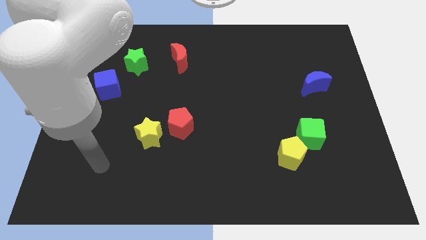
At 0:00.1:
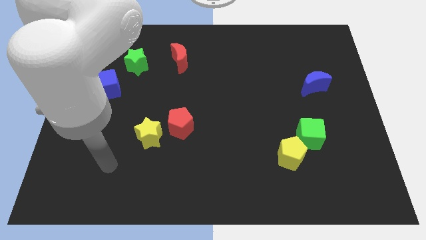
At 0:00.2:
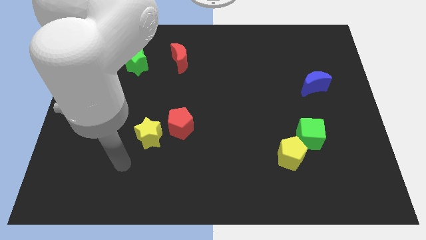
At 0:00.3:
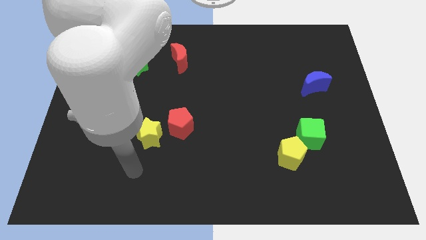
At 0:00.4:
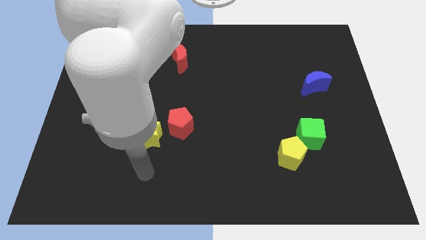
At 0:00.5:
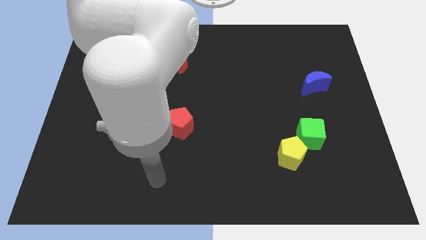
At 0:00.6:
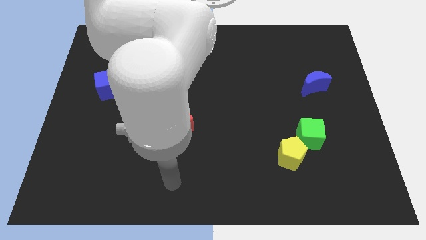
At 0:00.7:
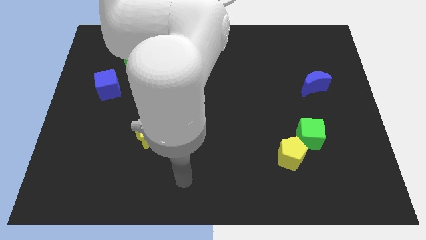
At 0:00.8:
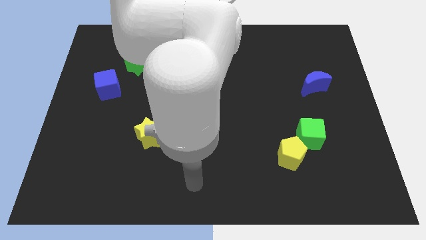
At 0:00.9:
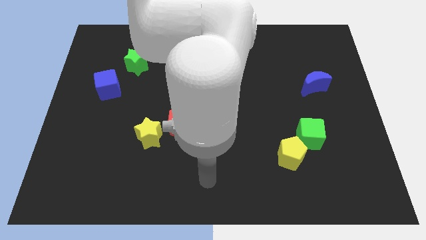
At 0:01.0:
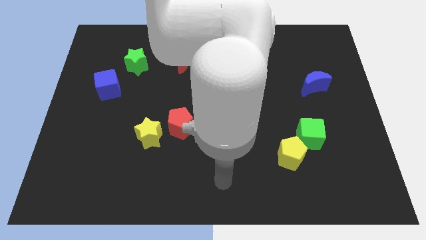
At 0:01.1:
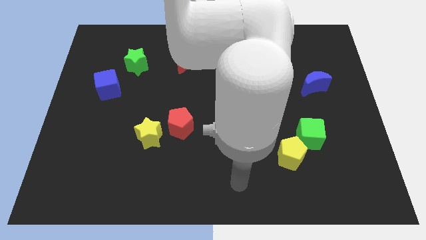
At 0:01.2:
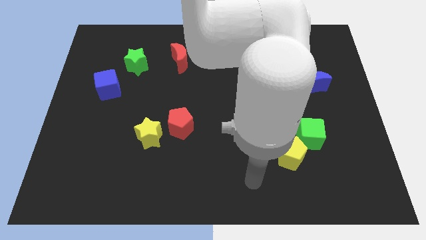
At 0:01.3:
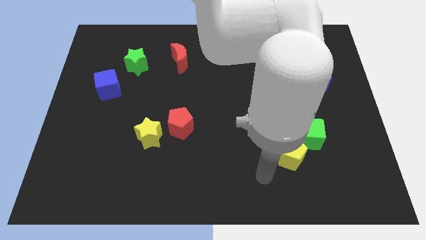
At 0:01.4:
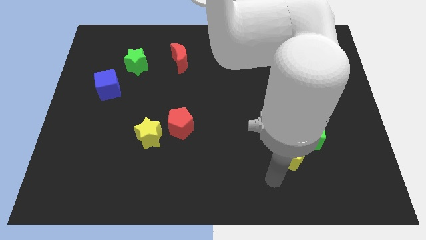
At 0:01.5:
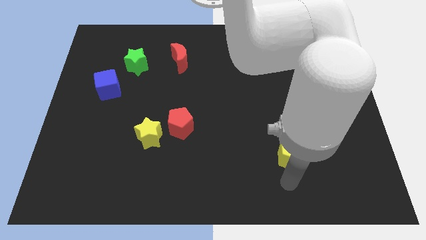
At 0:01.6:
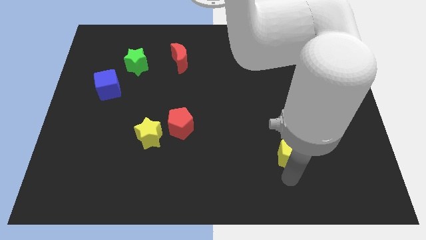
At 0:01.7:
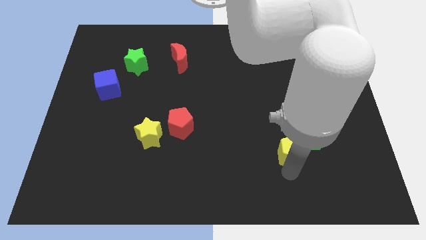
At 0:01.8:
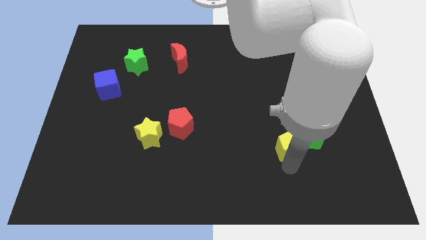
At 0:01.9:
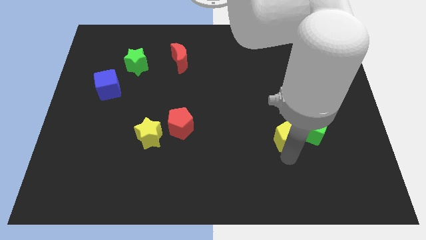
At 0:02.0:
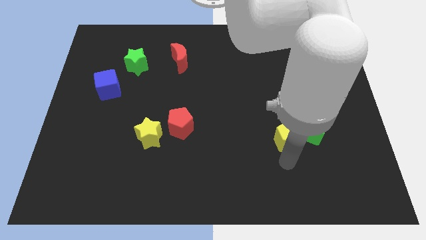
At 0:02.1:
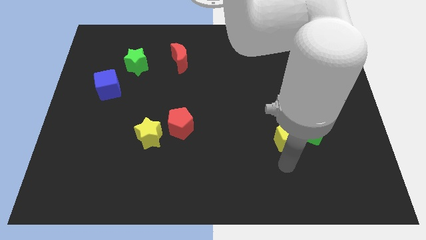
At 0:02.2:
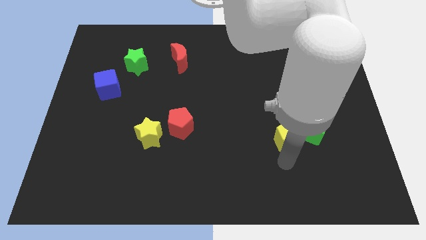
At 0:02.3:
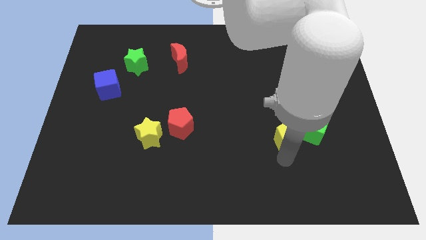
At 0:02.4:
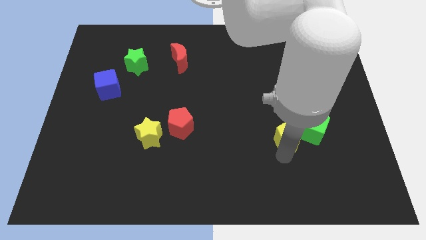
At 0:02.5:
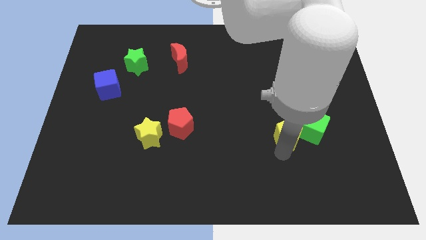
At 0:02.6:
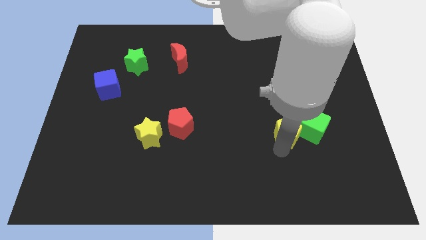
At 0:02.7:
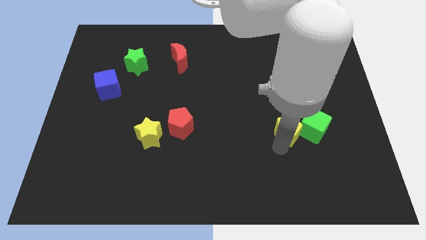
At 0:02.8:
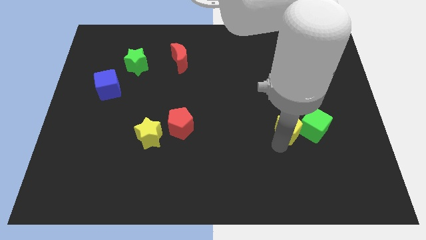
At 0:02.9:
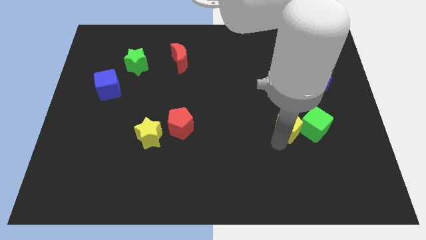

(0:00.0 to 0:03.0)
slide the yellow pentagon up a little bit

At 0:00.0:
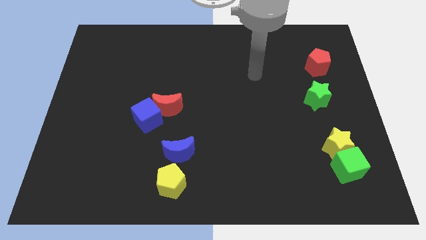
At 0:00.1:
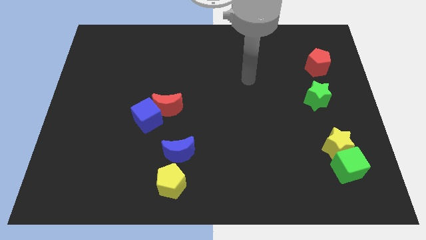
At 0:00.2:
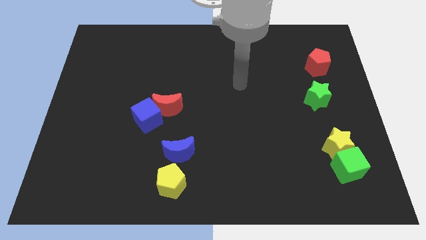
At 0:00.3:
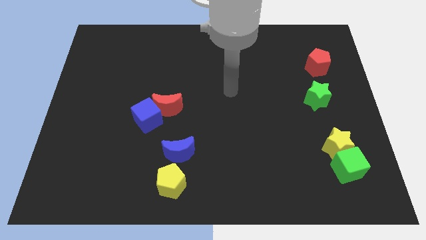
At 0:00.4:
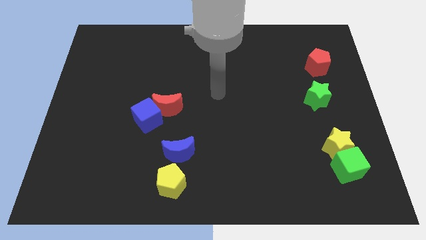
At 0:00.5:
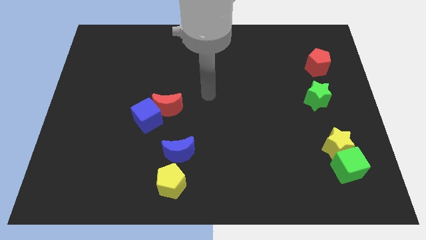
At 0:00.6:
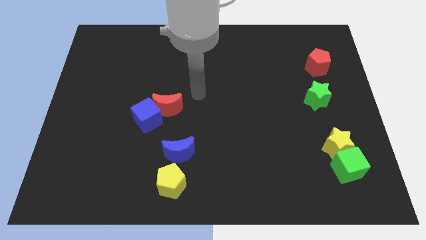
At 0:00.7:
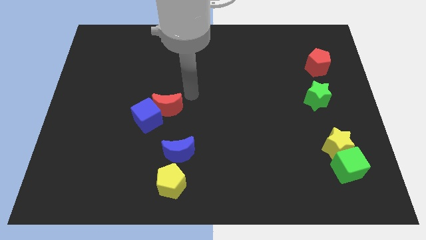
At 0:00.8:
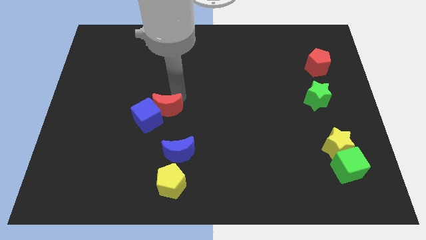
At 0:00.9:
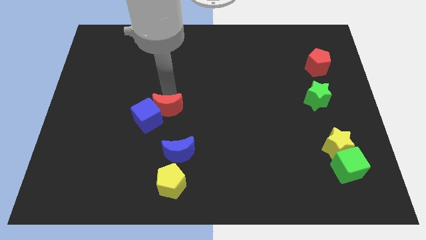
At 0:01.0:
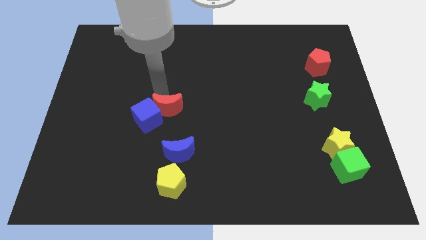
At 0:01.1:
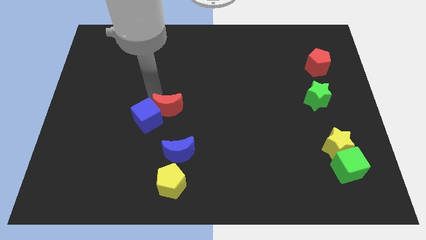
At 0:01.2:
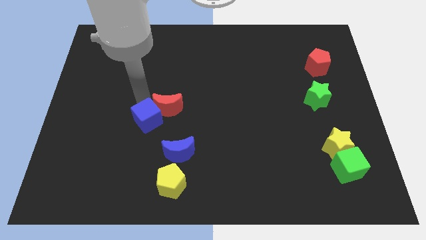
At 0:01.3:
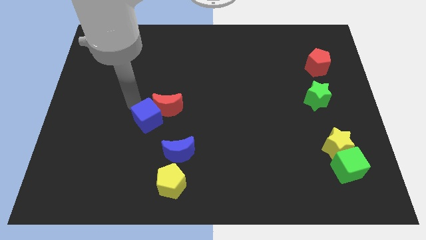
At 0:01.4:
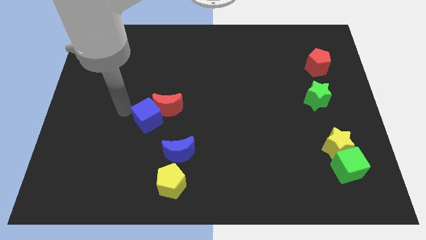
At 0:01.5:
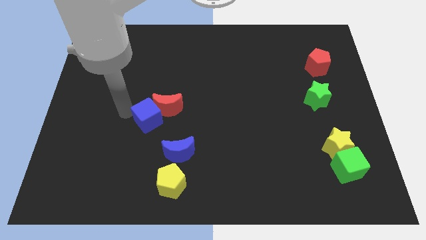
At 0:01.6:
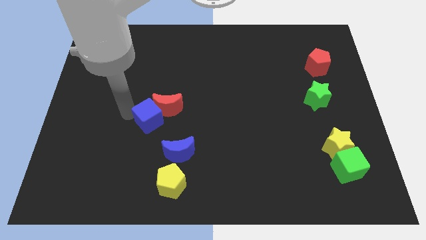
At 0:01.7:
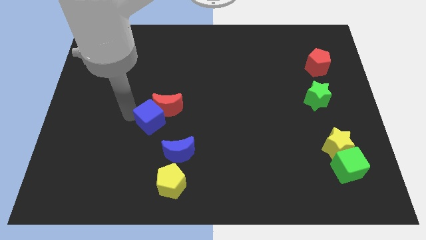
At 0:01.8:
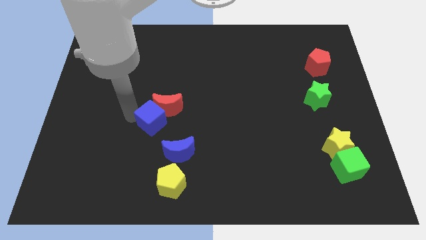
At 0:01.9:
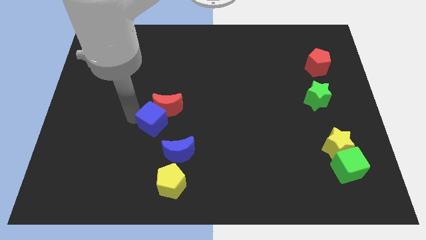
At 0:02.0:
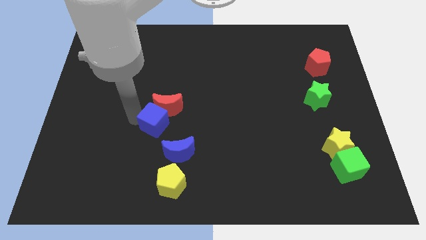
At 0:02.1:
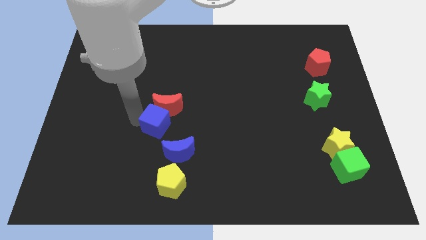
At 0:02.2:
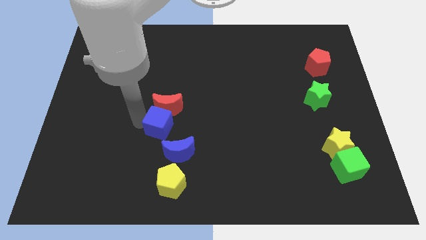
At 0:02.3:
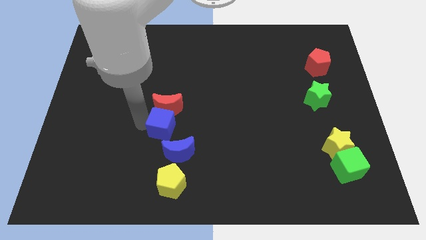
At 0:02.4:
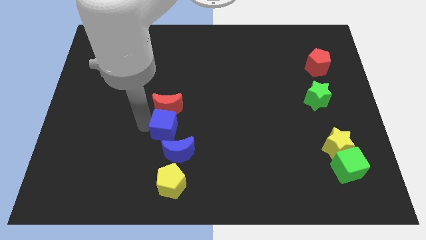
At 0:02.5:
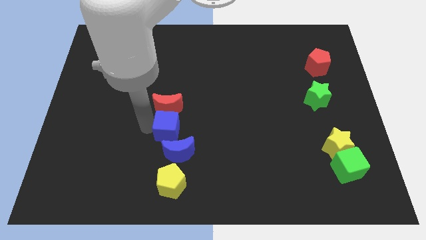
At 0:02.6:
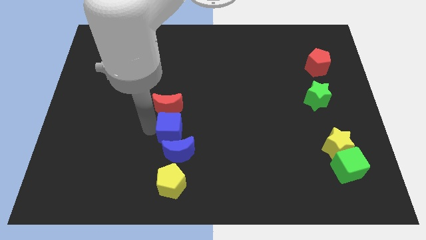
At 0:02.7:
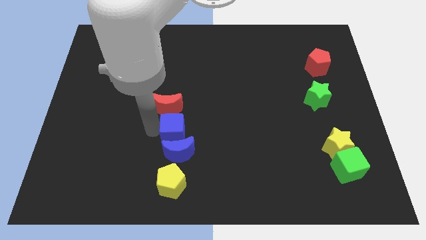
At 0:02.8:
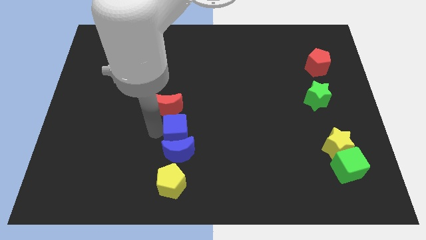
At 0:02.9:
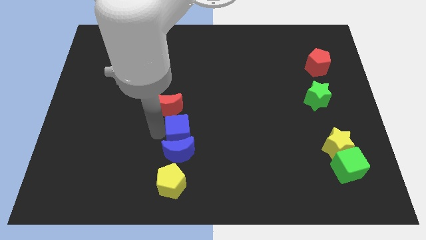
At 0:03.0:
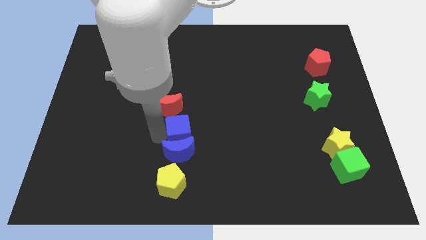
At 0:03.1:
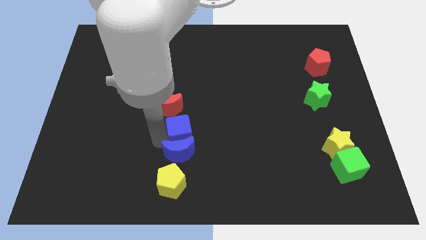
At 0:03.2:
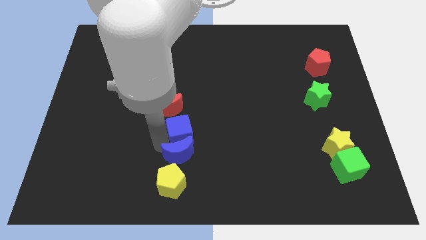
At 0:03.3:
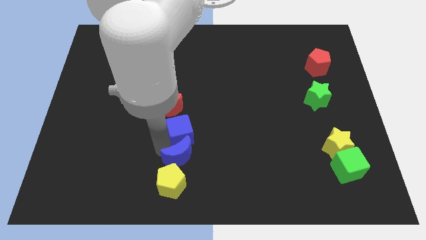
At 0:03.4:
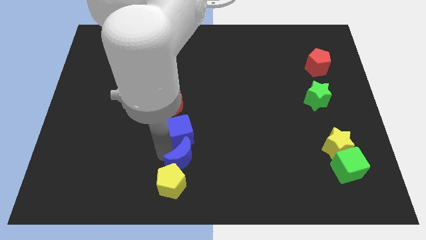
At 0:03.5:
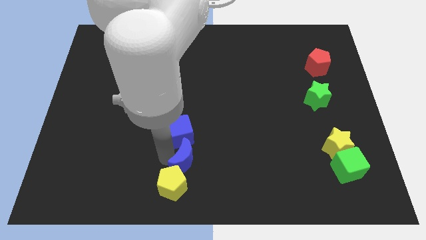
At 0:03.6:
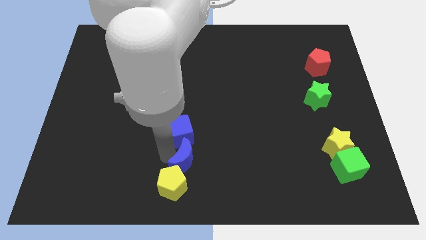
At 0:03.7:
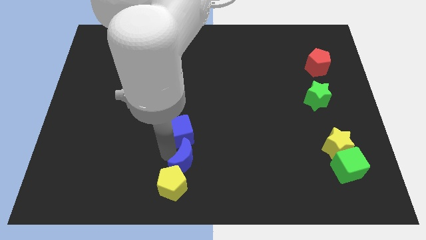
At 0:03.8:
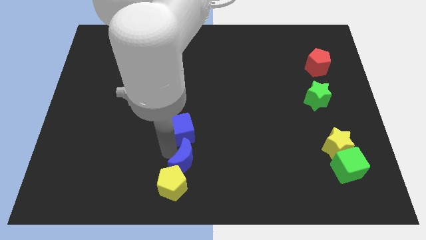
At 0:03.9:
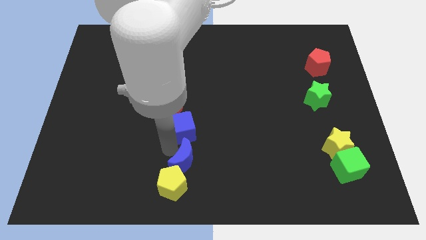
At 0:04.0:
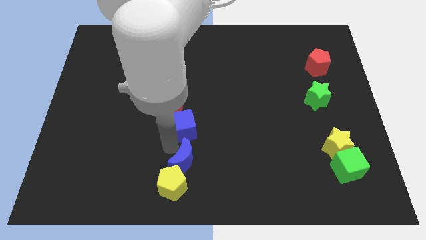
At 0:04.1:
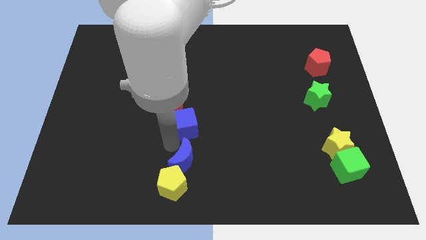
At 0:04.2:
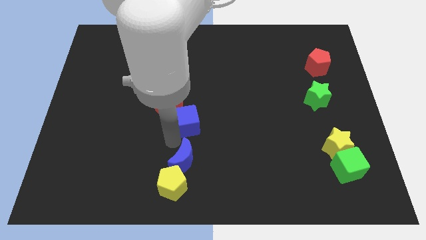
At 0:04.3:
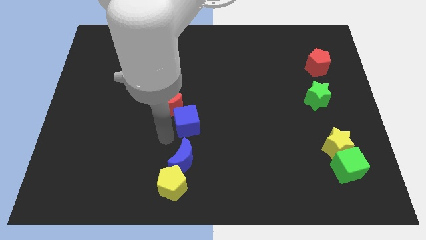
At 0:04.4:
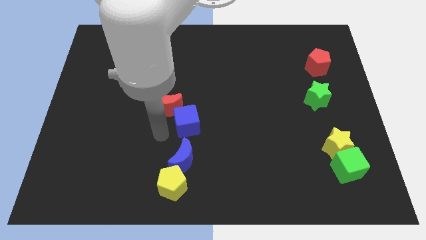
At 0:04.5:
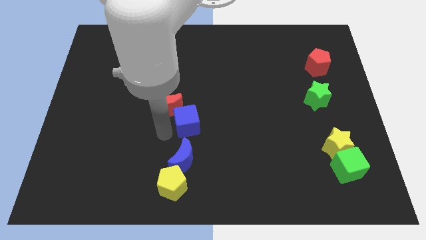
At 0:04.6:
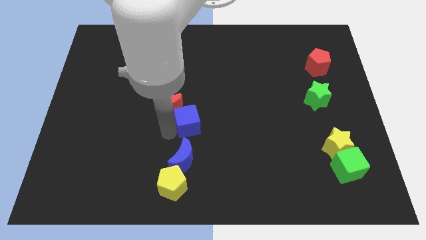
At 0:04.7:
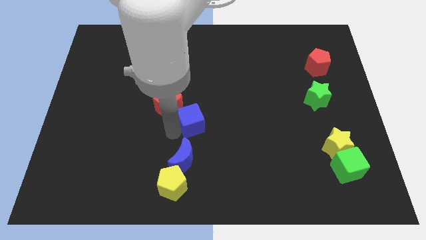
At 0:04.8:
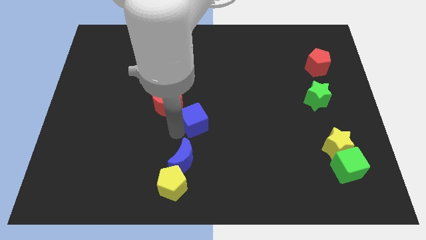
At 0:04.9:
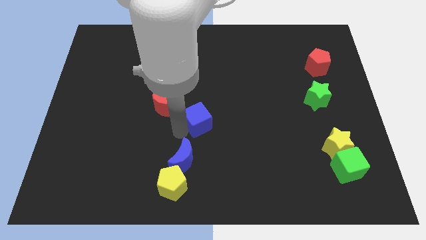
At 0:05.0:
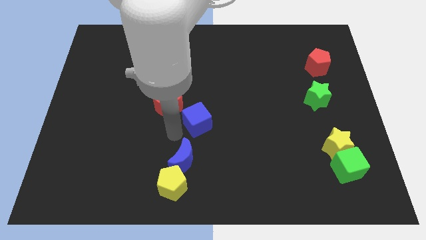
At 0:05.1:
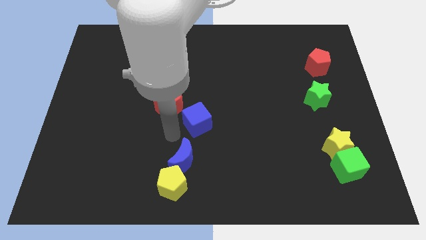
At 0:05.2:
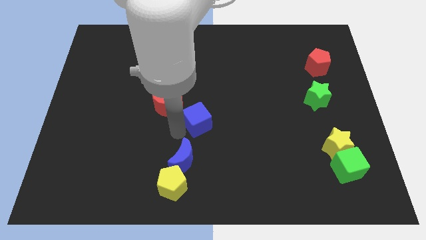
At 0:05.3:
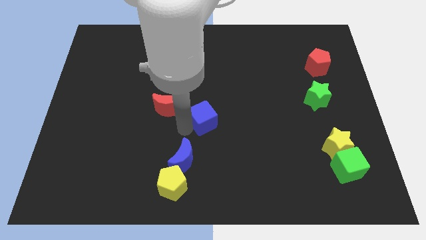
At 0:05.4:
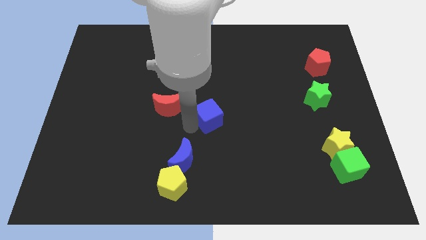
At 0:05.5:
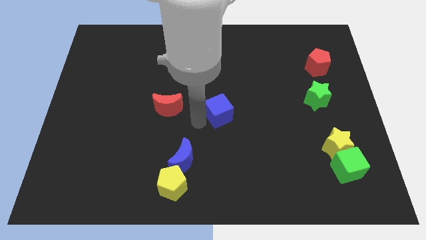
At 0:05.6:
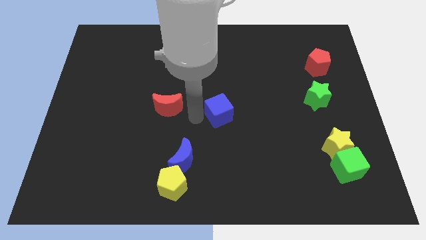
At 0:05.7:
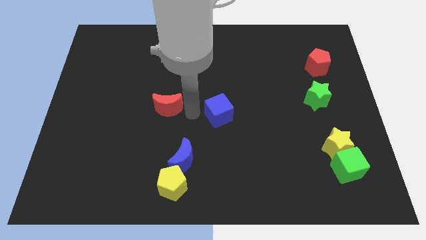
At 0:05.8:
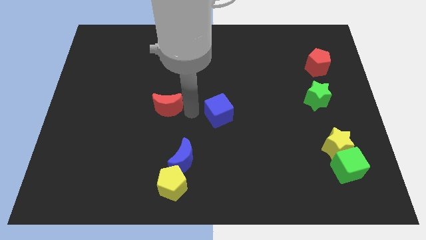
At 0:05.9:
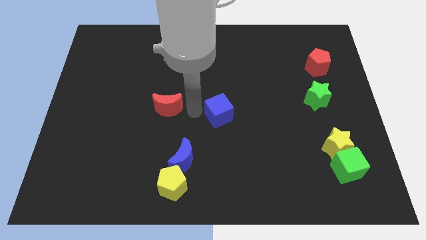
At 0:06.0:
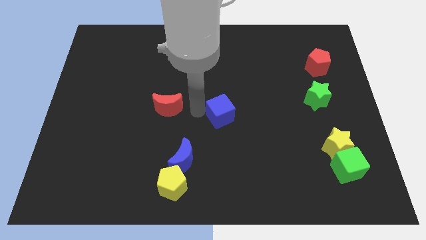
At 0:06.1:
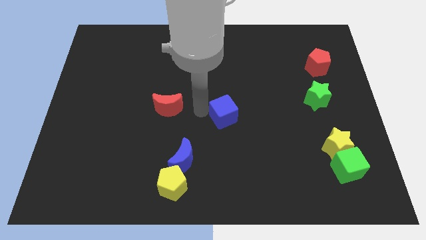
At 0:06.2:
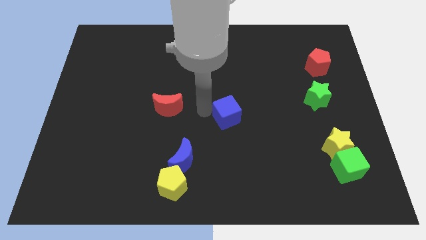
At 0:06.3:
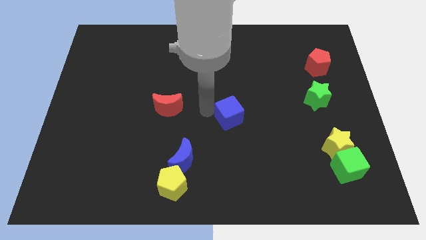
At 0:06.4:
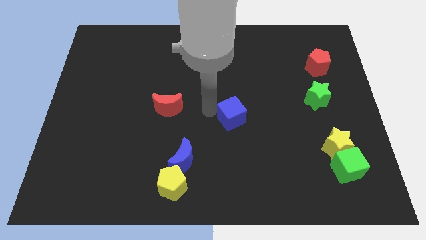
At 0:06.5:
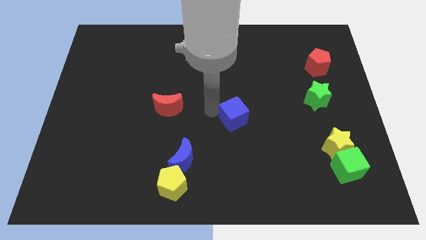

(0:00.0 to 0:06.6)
move the blue cube right
